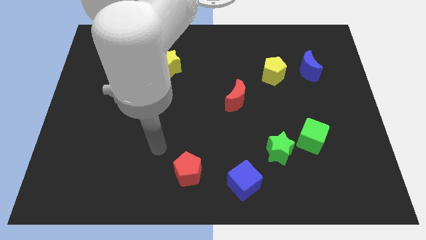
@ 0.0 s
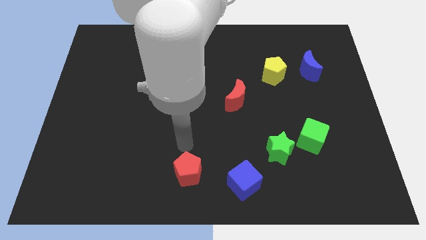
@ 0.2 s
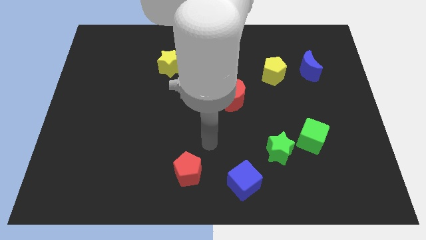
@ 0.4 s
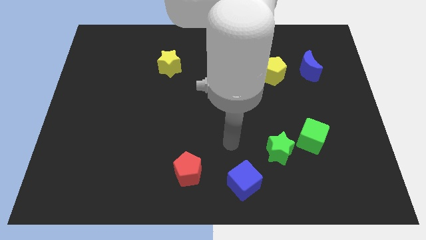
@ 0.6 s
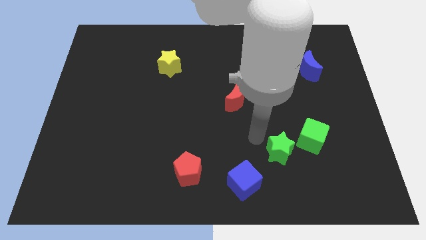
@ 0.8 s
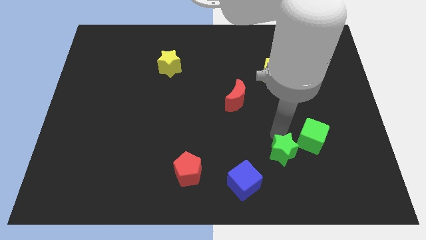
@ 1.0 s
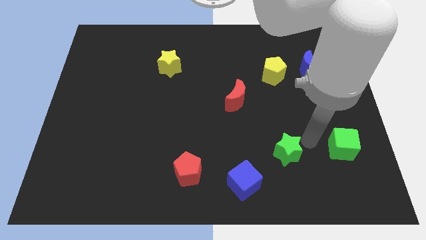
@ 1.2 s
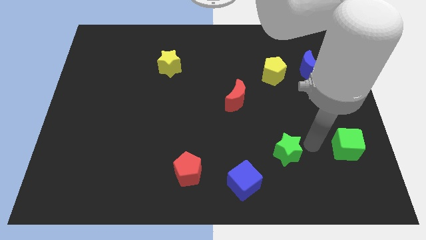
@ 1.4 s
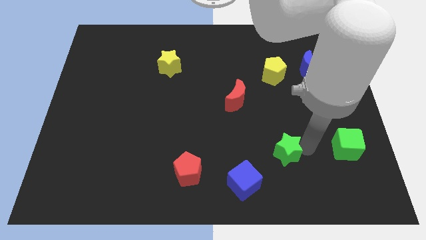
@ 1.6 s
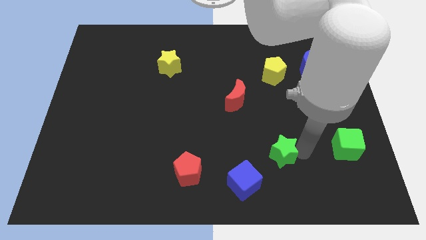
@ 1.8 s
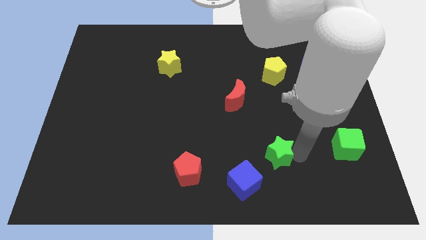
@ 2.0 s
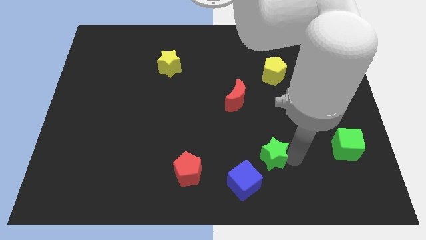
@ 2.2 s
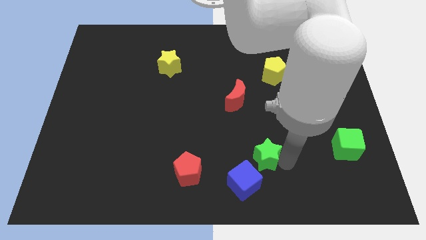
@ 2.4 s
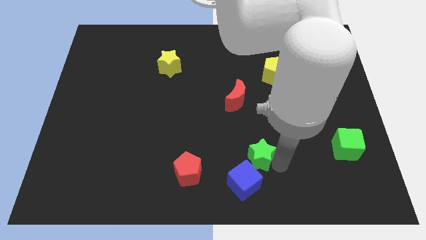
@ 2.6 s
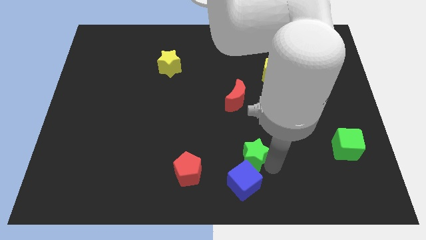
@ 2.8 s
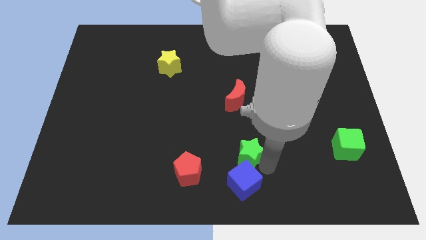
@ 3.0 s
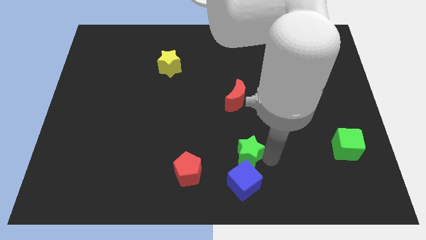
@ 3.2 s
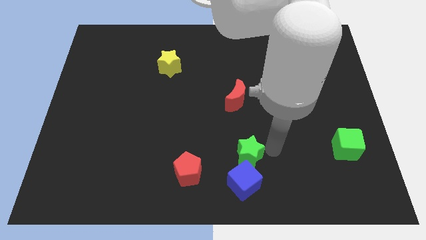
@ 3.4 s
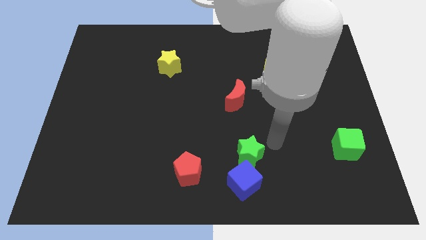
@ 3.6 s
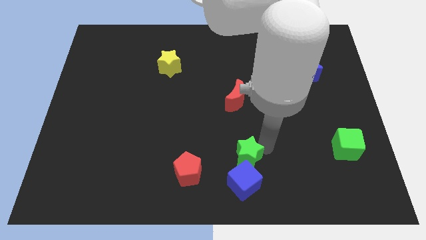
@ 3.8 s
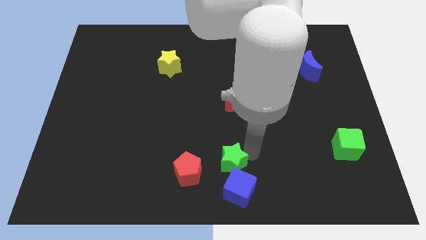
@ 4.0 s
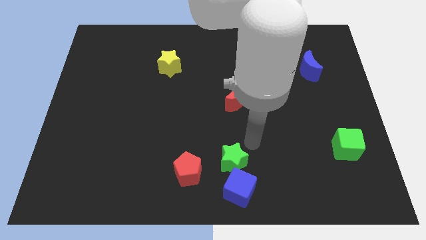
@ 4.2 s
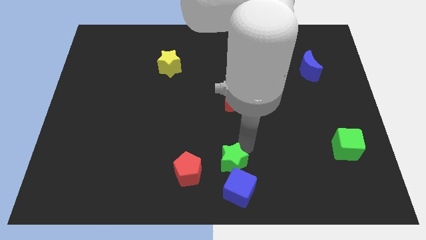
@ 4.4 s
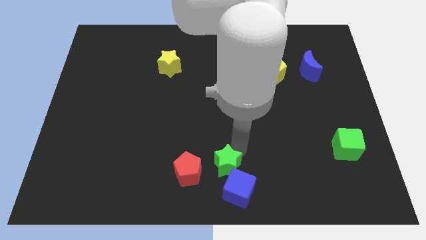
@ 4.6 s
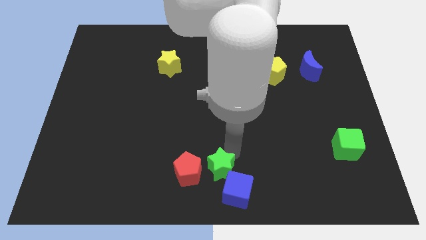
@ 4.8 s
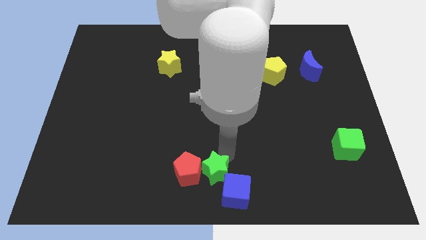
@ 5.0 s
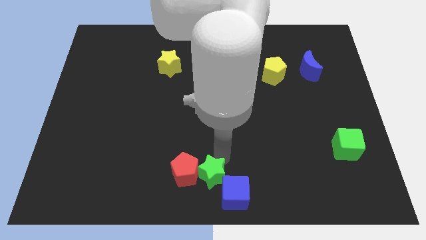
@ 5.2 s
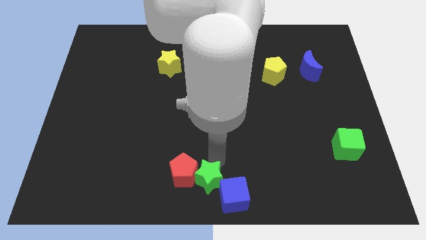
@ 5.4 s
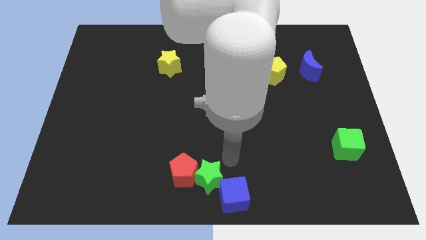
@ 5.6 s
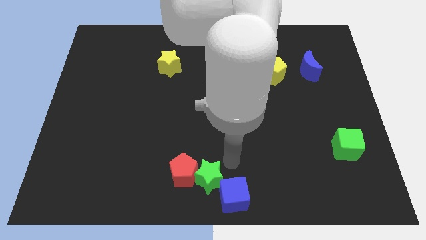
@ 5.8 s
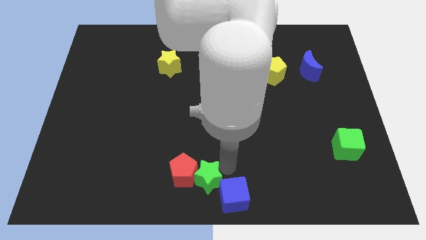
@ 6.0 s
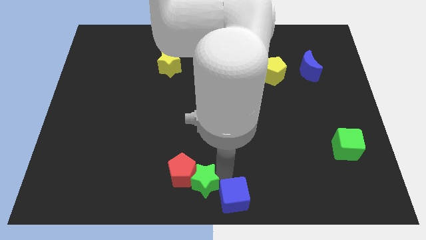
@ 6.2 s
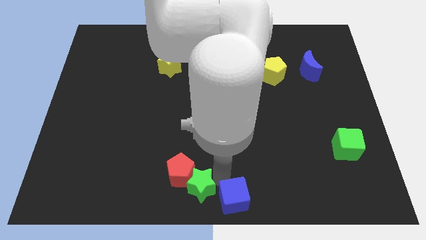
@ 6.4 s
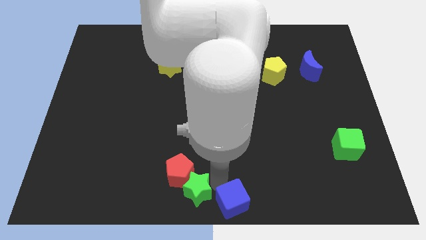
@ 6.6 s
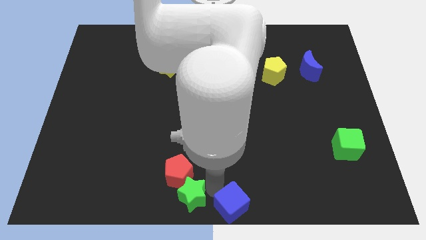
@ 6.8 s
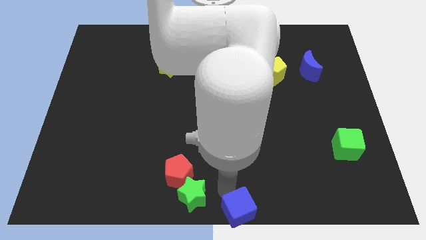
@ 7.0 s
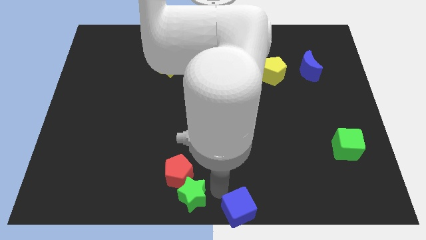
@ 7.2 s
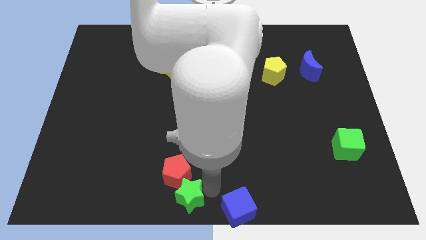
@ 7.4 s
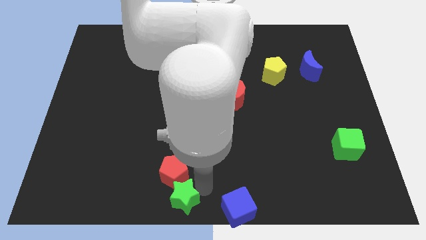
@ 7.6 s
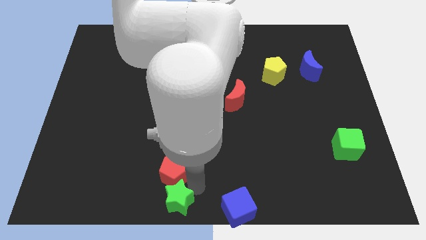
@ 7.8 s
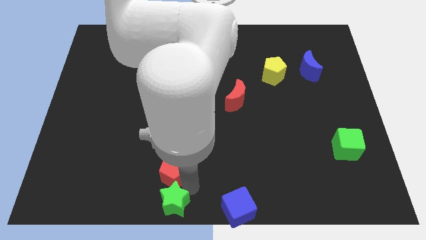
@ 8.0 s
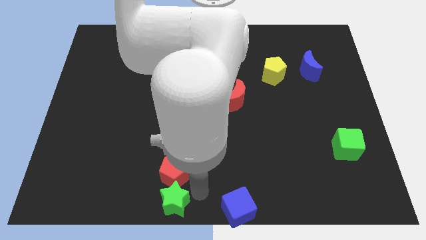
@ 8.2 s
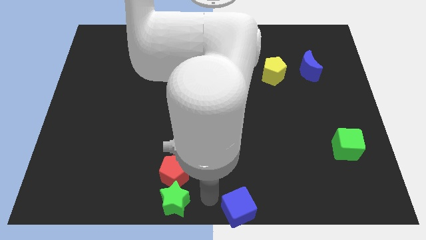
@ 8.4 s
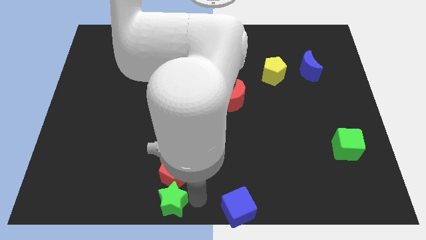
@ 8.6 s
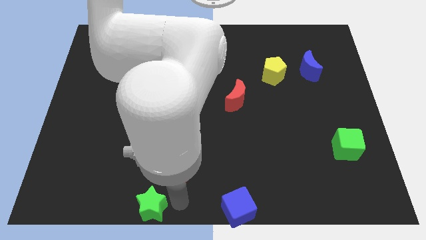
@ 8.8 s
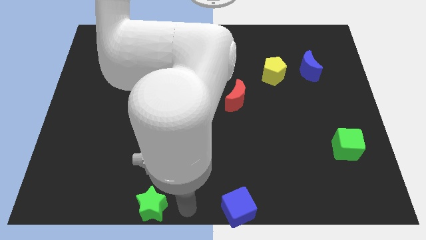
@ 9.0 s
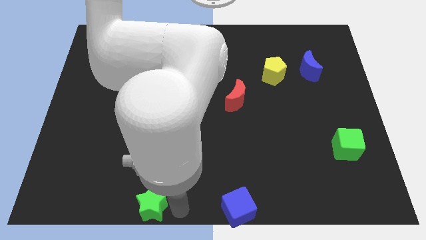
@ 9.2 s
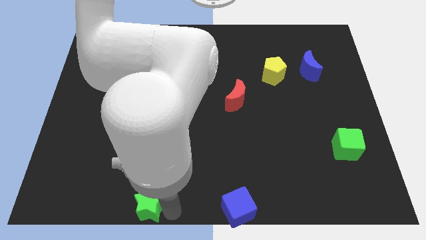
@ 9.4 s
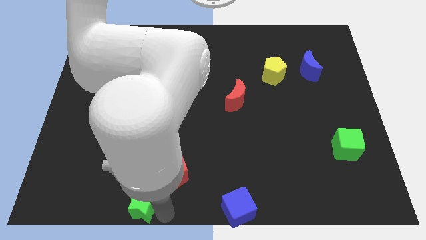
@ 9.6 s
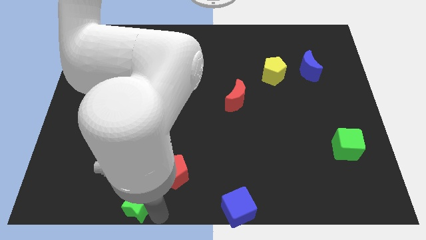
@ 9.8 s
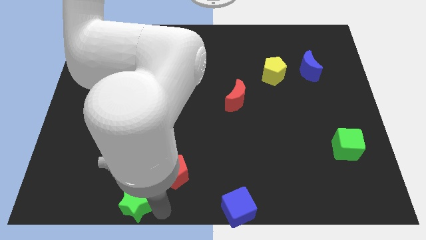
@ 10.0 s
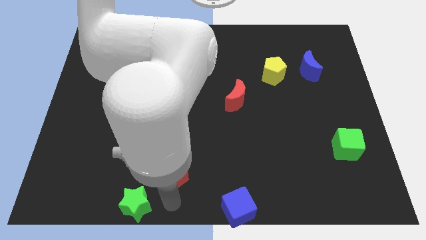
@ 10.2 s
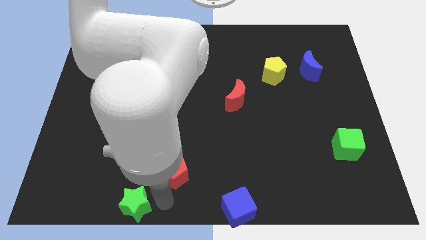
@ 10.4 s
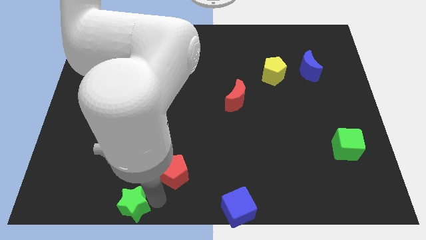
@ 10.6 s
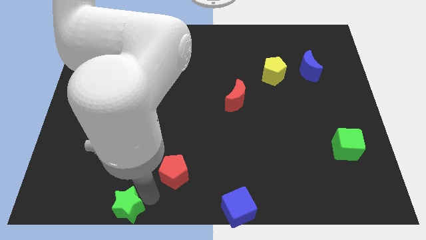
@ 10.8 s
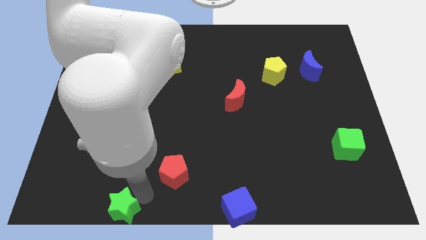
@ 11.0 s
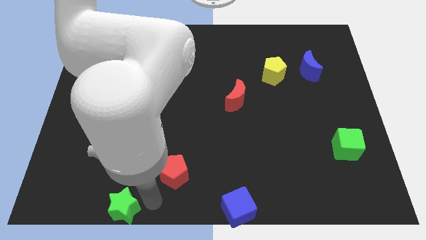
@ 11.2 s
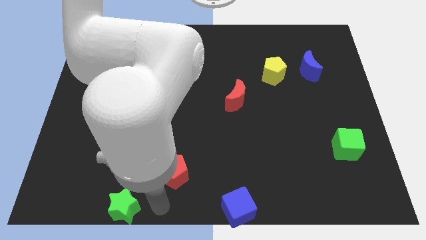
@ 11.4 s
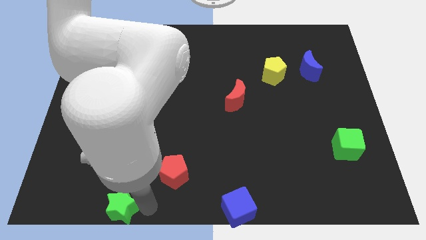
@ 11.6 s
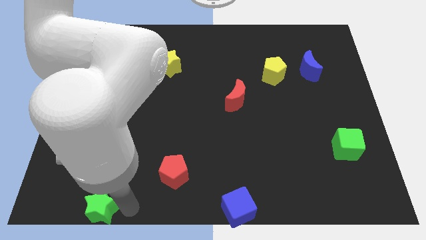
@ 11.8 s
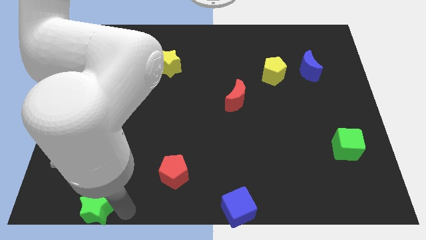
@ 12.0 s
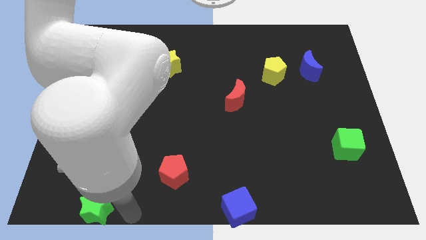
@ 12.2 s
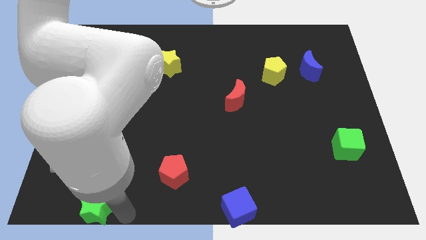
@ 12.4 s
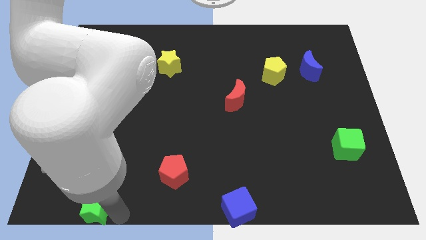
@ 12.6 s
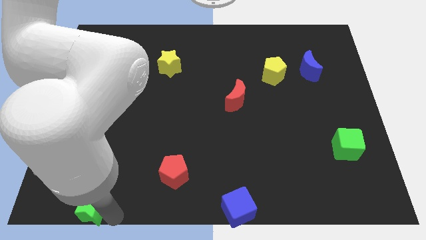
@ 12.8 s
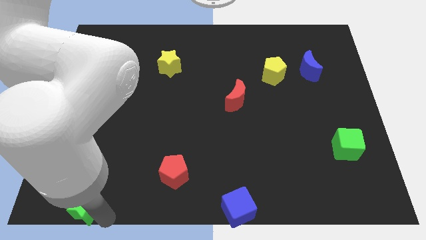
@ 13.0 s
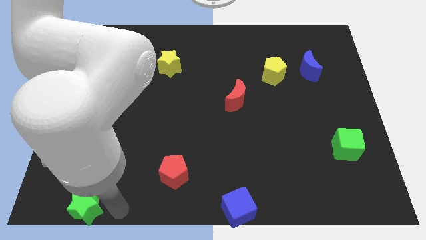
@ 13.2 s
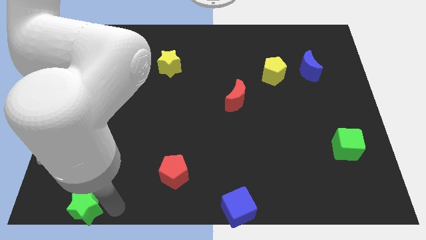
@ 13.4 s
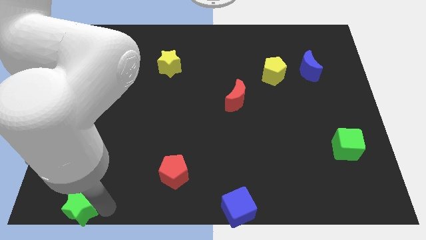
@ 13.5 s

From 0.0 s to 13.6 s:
move the green star to the bottom left corner
